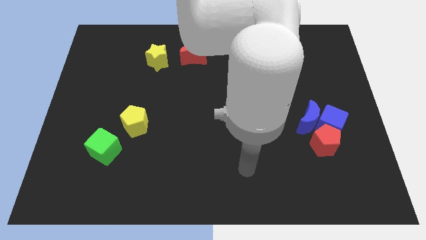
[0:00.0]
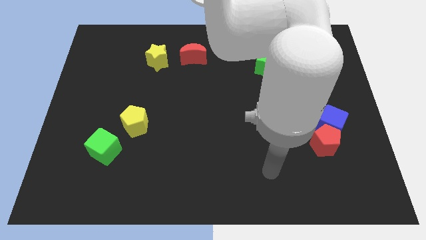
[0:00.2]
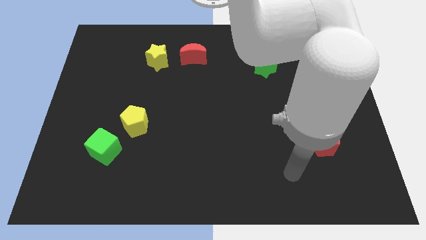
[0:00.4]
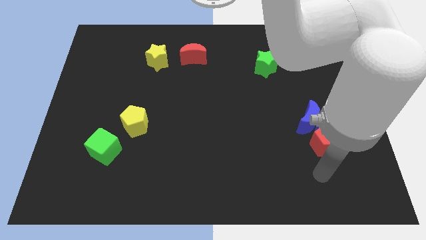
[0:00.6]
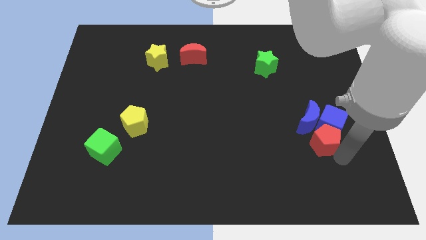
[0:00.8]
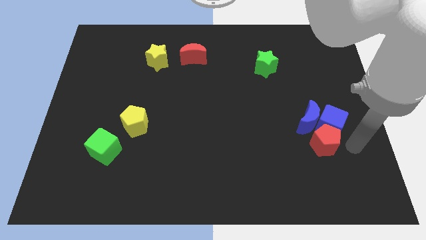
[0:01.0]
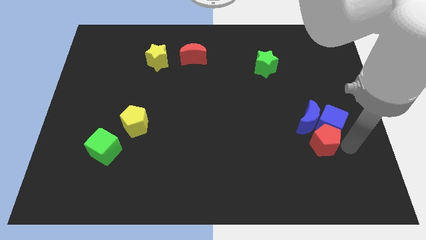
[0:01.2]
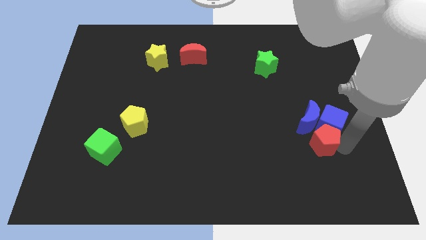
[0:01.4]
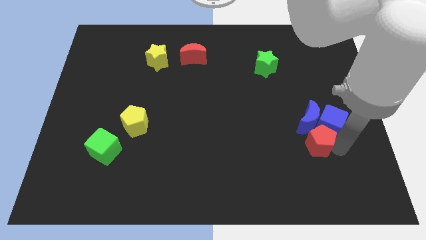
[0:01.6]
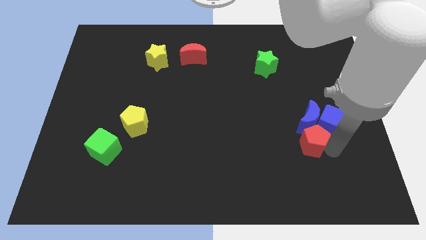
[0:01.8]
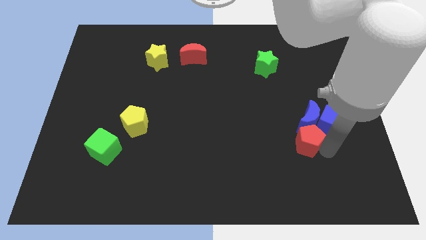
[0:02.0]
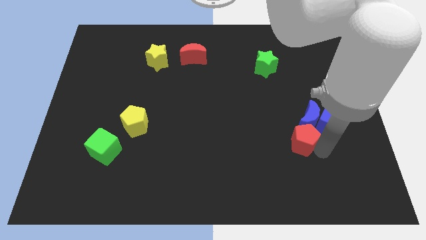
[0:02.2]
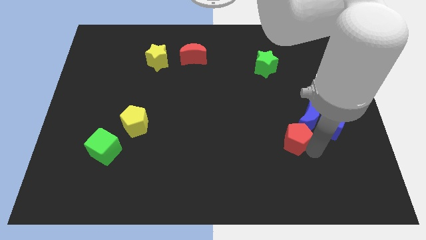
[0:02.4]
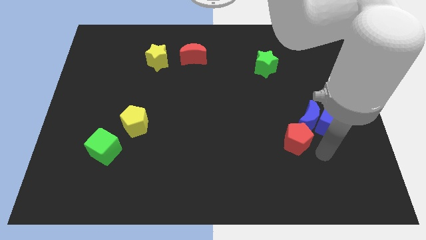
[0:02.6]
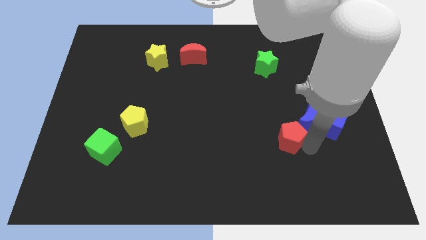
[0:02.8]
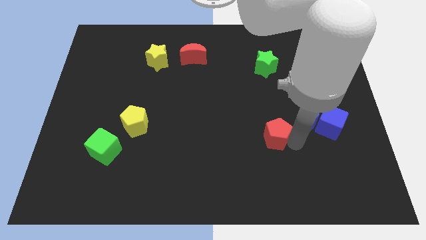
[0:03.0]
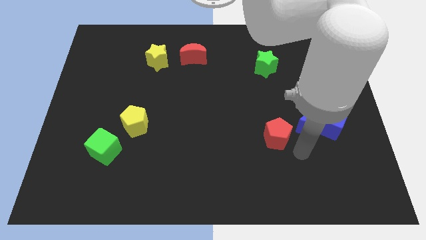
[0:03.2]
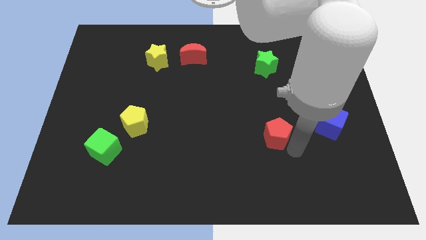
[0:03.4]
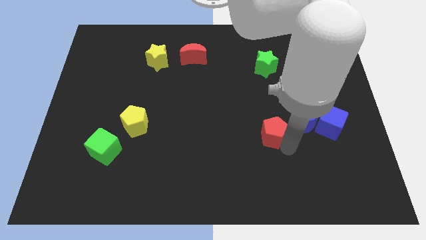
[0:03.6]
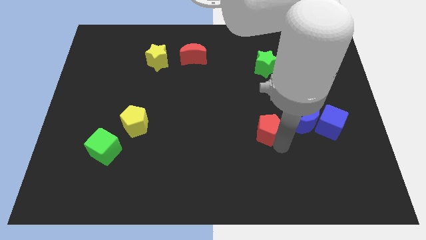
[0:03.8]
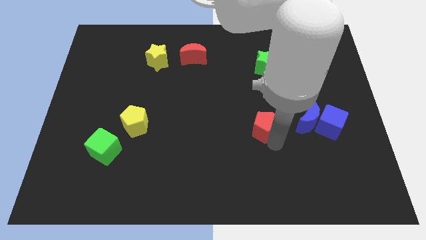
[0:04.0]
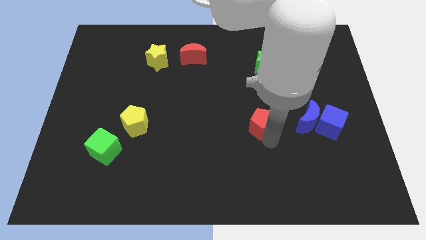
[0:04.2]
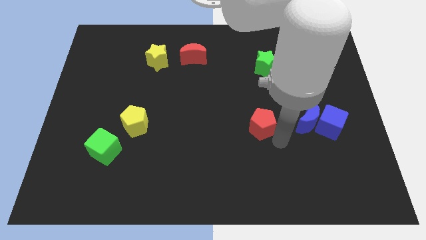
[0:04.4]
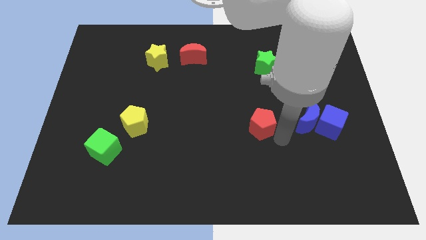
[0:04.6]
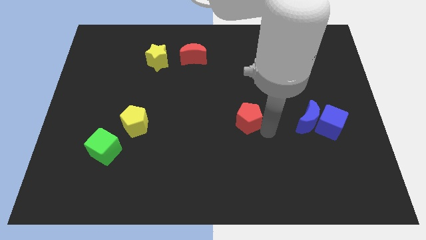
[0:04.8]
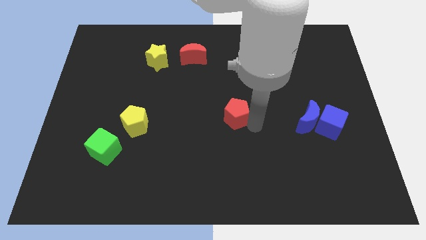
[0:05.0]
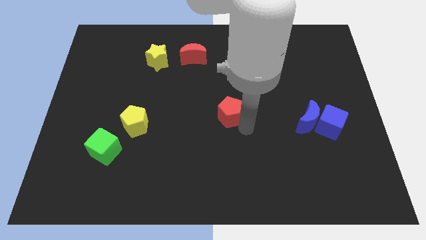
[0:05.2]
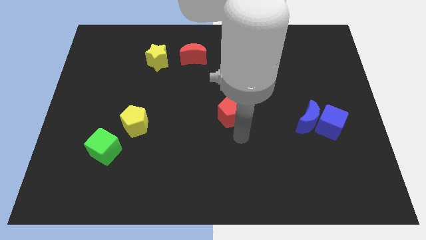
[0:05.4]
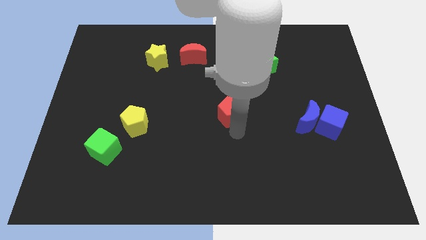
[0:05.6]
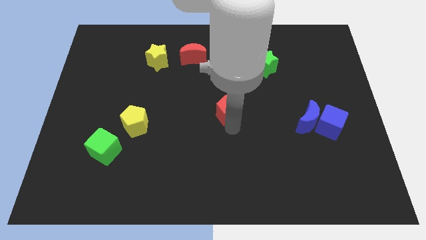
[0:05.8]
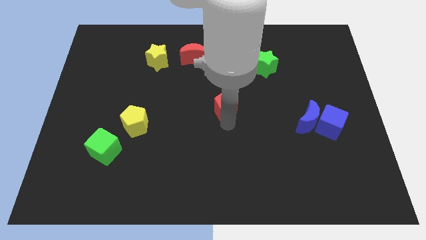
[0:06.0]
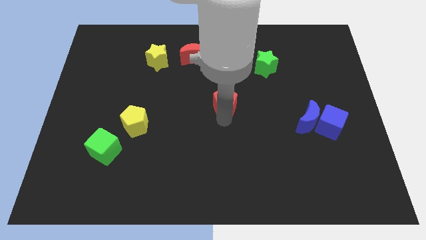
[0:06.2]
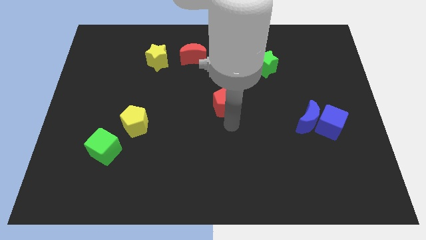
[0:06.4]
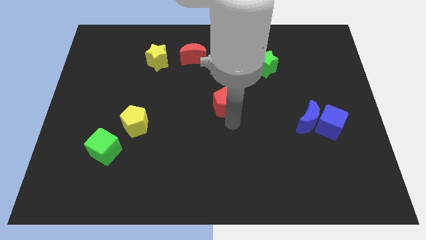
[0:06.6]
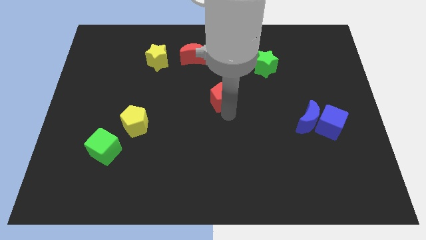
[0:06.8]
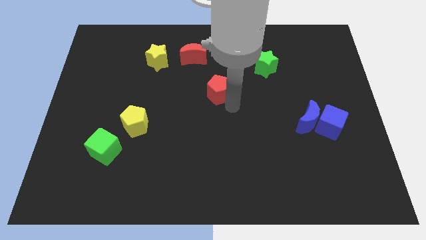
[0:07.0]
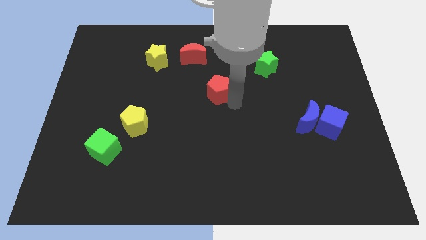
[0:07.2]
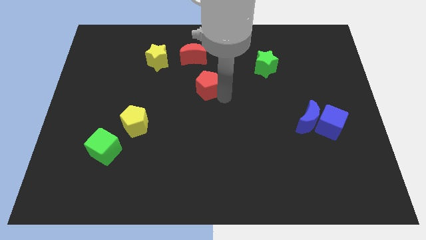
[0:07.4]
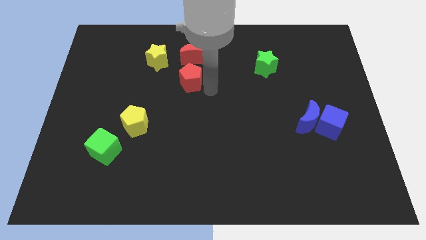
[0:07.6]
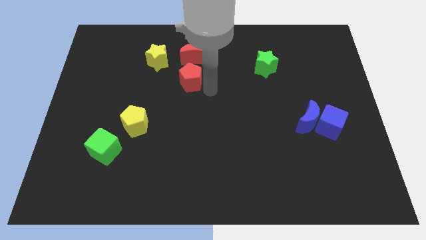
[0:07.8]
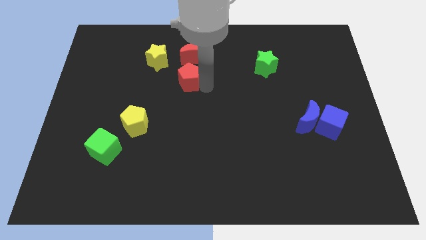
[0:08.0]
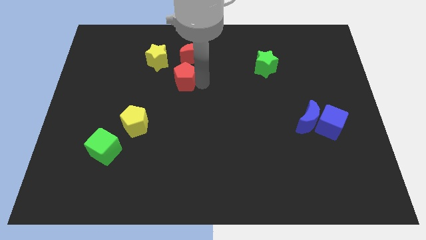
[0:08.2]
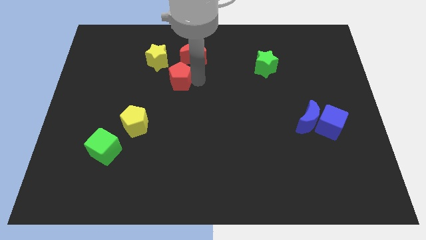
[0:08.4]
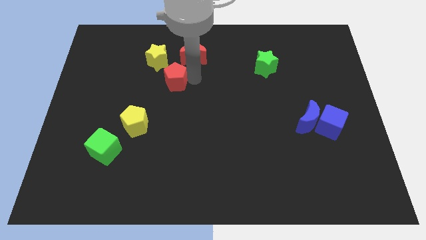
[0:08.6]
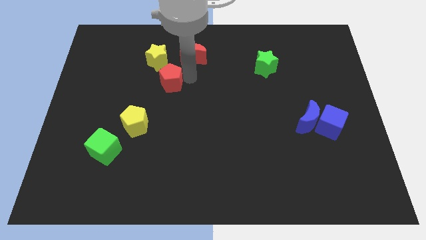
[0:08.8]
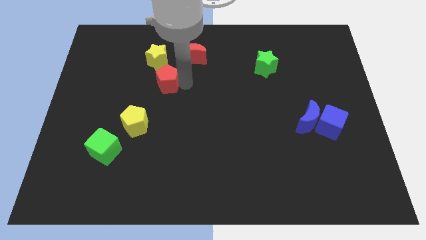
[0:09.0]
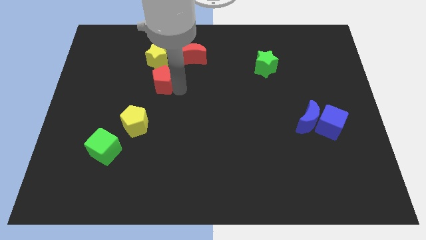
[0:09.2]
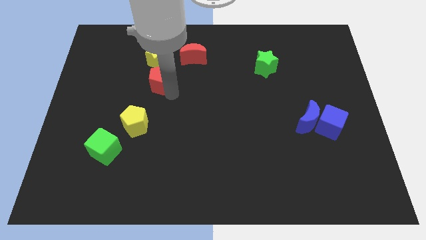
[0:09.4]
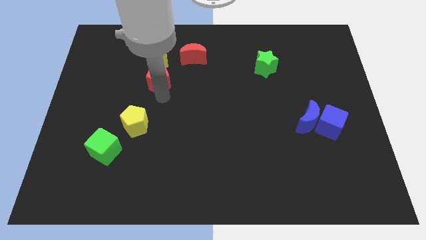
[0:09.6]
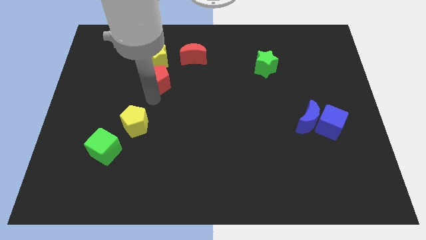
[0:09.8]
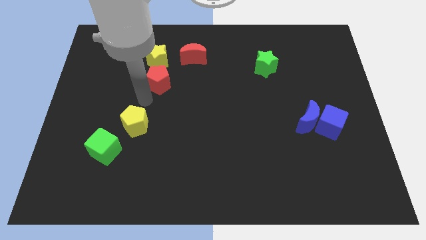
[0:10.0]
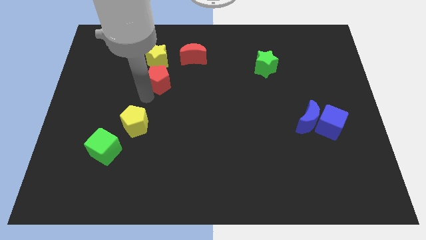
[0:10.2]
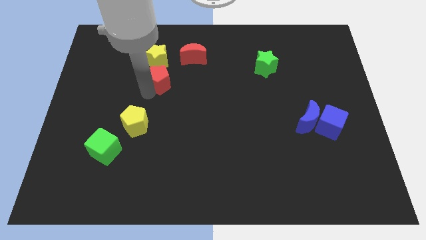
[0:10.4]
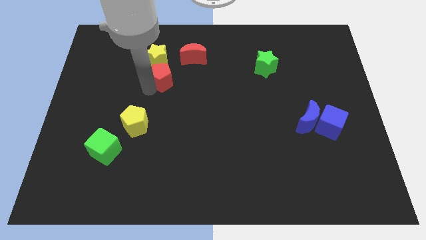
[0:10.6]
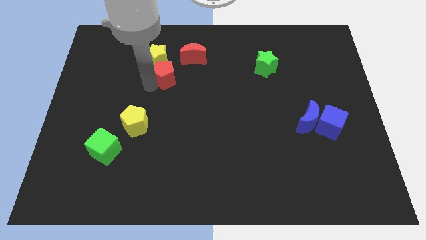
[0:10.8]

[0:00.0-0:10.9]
slide the red pentagon next to the yellow star
